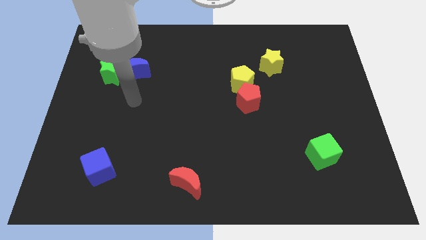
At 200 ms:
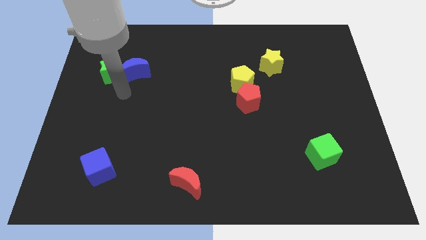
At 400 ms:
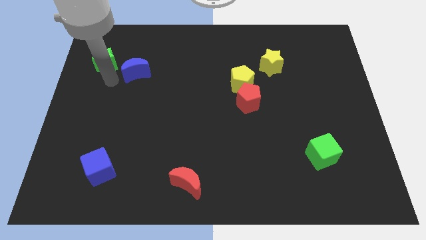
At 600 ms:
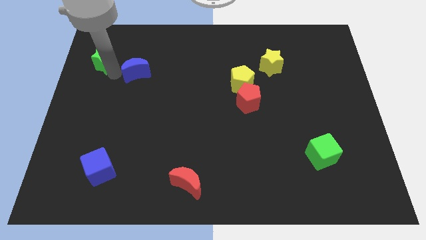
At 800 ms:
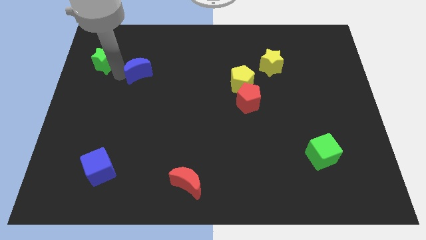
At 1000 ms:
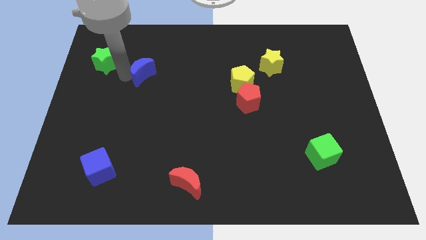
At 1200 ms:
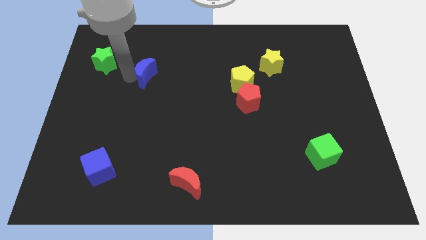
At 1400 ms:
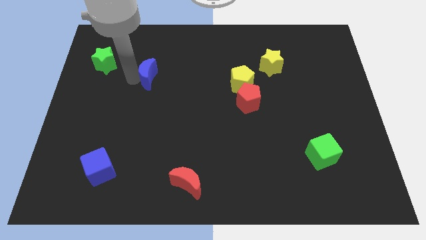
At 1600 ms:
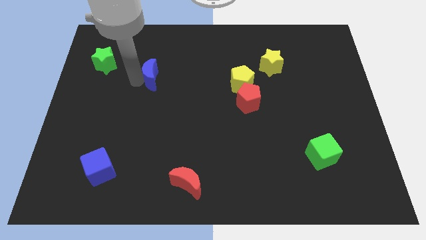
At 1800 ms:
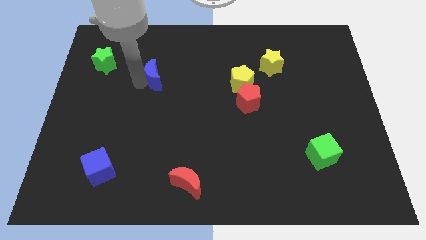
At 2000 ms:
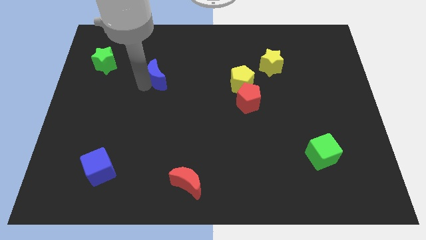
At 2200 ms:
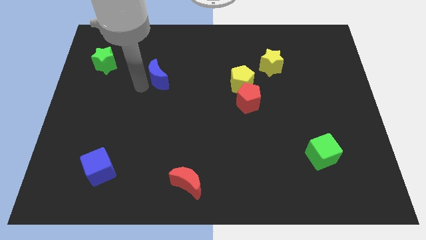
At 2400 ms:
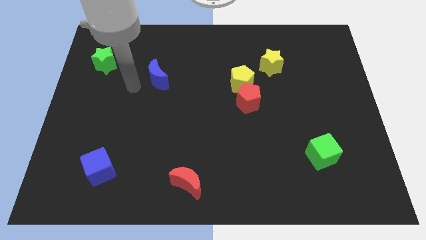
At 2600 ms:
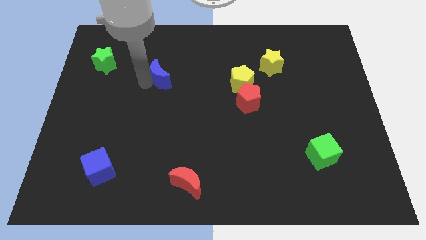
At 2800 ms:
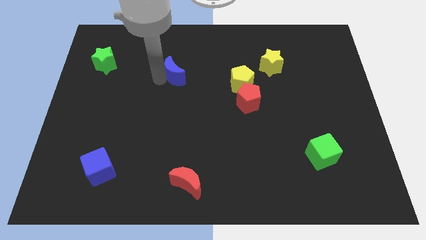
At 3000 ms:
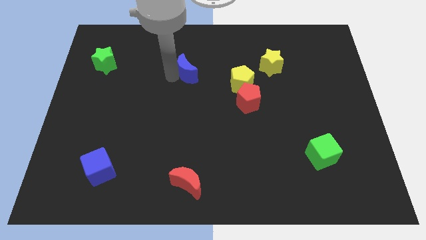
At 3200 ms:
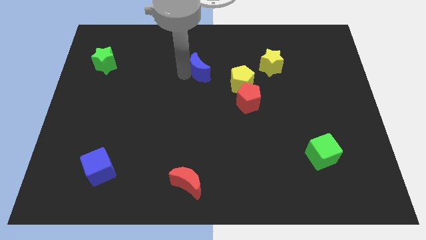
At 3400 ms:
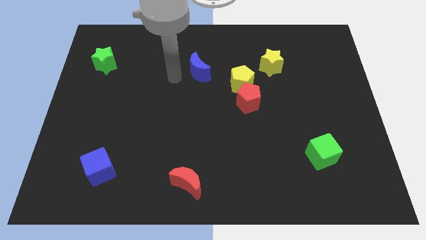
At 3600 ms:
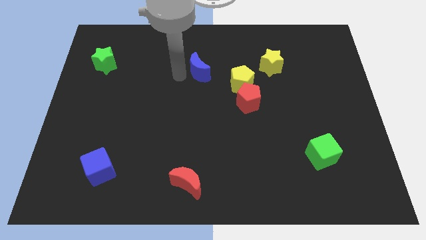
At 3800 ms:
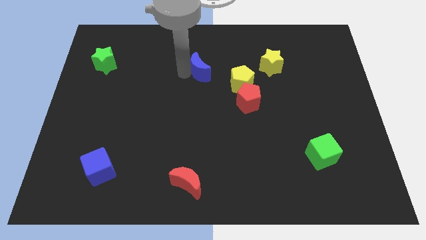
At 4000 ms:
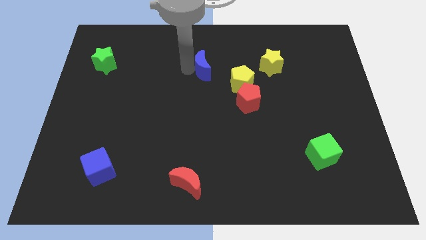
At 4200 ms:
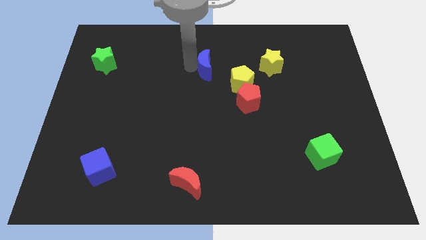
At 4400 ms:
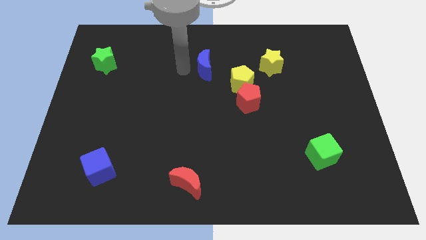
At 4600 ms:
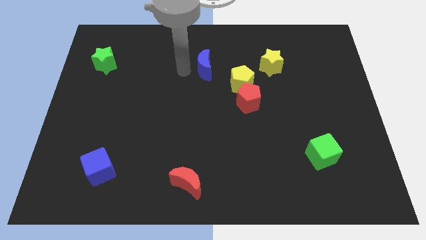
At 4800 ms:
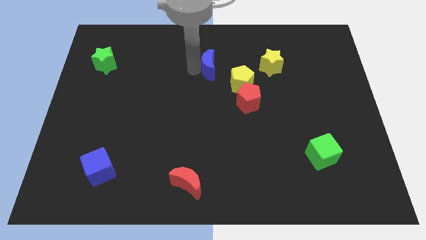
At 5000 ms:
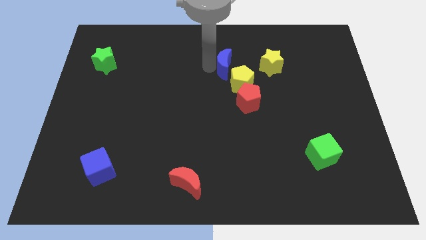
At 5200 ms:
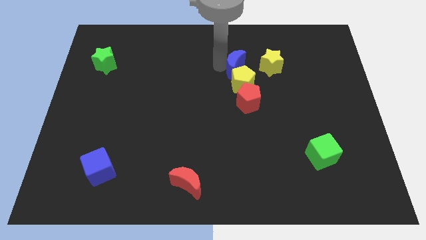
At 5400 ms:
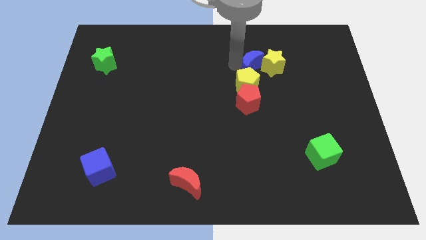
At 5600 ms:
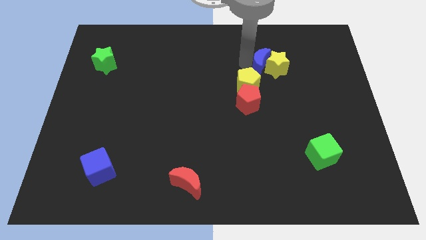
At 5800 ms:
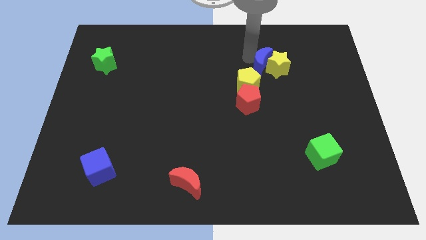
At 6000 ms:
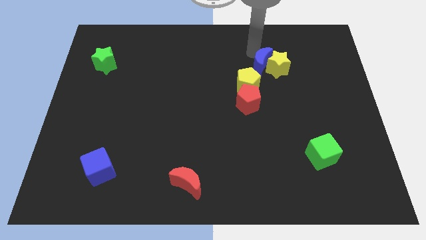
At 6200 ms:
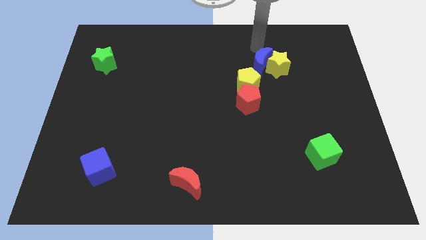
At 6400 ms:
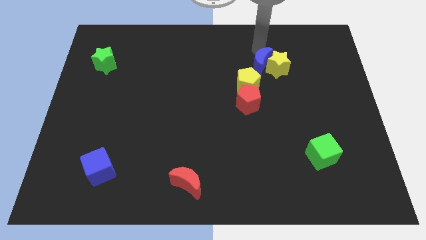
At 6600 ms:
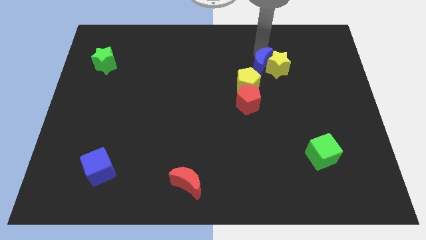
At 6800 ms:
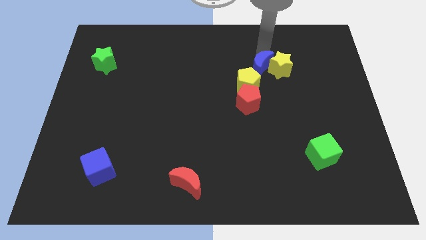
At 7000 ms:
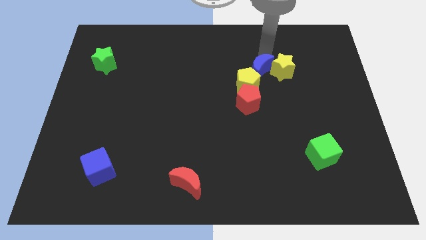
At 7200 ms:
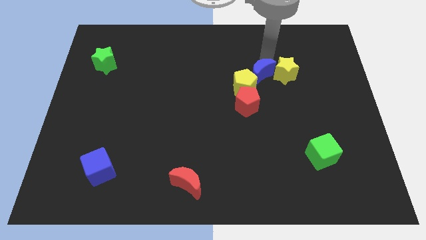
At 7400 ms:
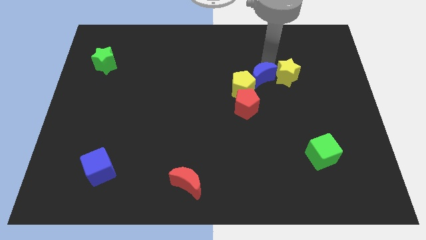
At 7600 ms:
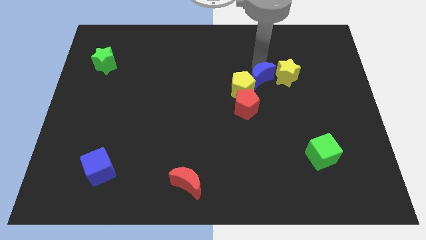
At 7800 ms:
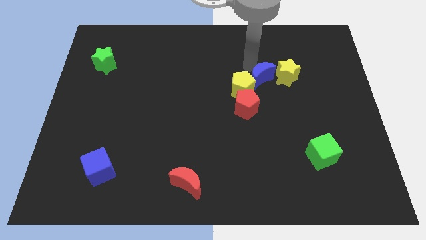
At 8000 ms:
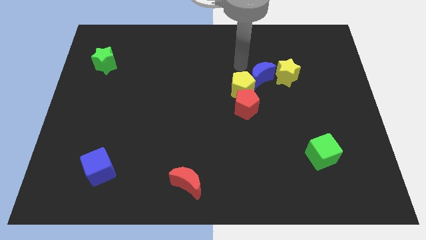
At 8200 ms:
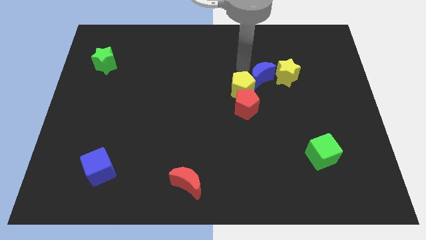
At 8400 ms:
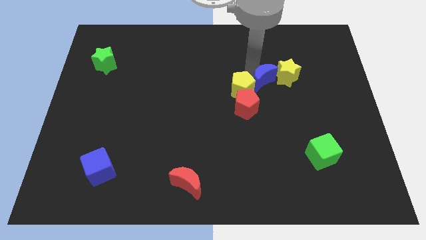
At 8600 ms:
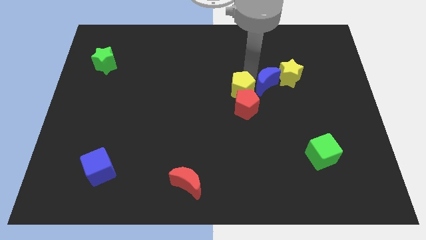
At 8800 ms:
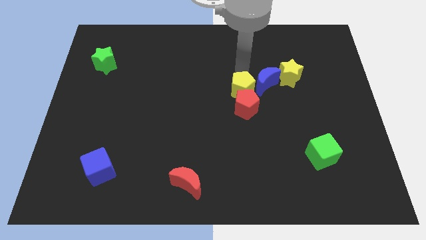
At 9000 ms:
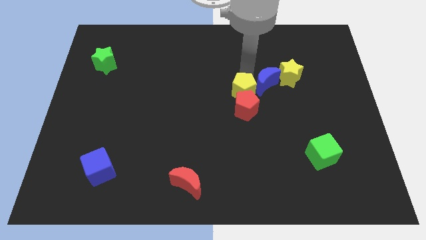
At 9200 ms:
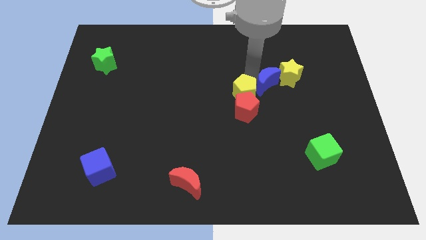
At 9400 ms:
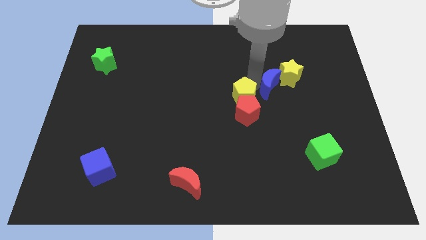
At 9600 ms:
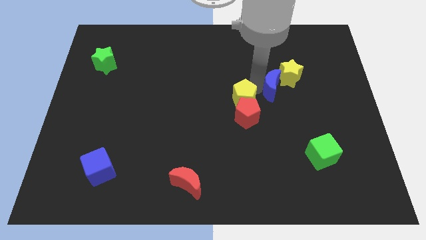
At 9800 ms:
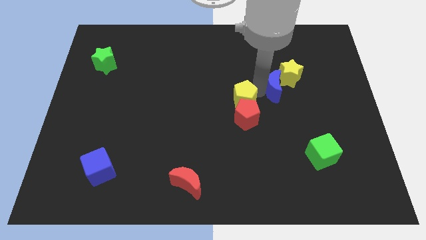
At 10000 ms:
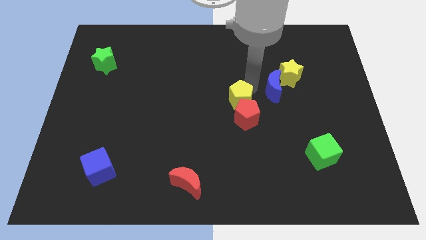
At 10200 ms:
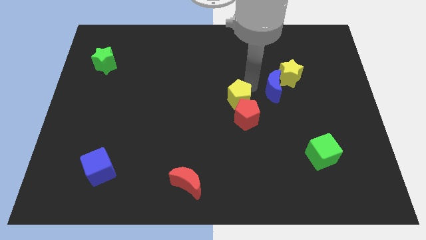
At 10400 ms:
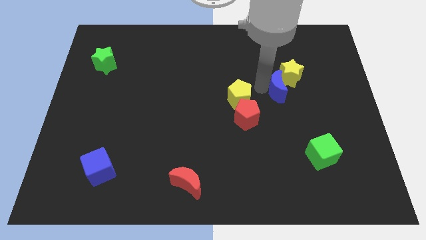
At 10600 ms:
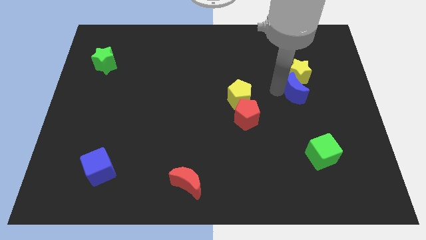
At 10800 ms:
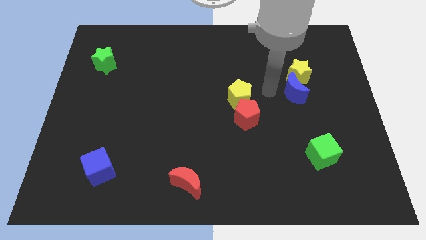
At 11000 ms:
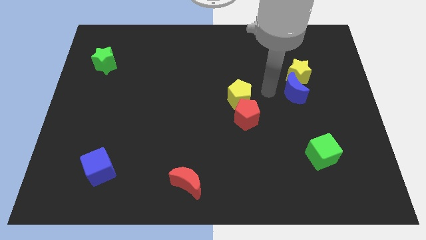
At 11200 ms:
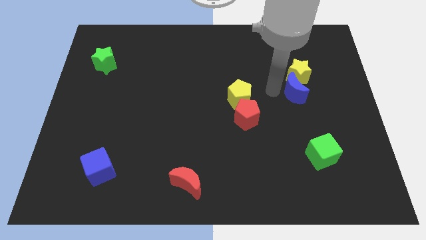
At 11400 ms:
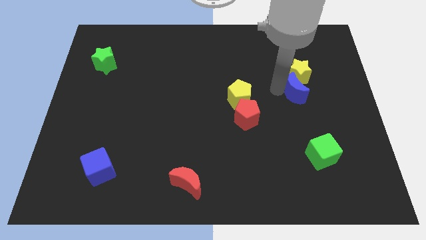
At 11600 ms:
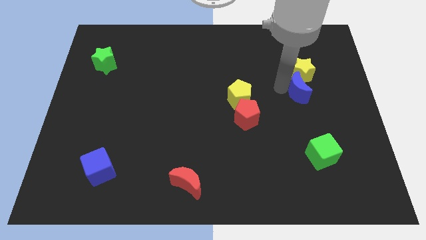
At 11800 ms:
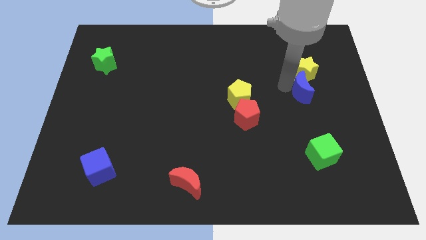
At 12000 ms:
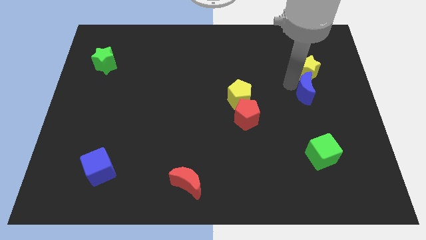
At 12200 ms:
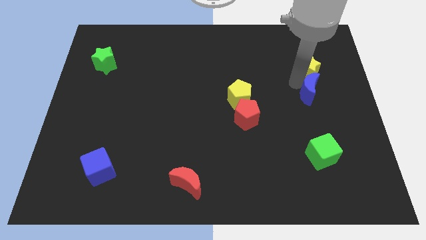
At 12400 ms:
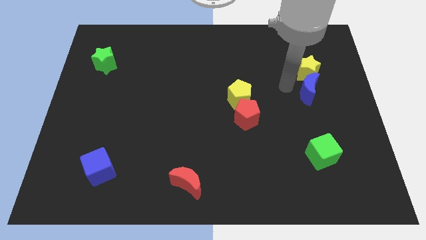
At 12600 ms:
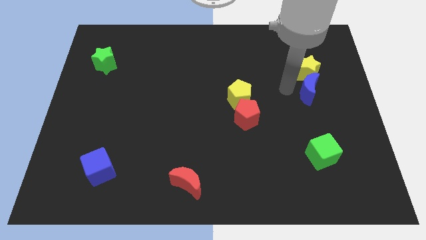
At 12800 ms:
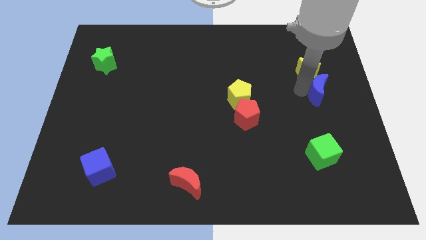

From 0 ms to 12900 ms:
put the blue moon to the center right
